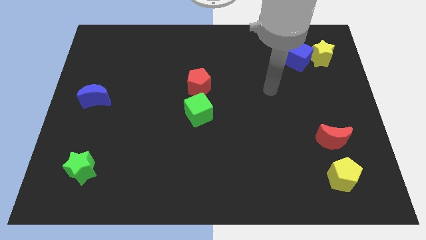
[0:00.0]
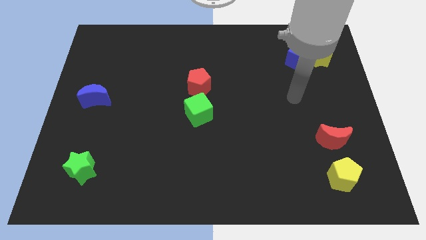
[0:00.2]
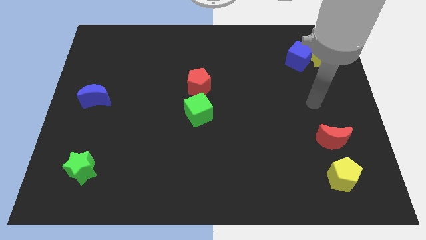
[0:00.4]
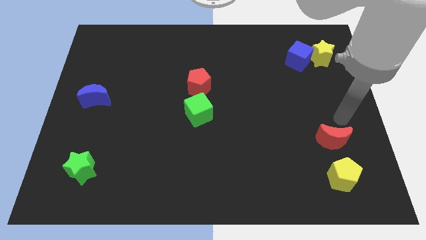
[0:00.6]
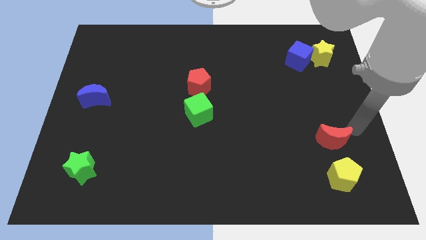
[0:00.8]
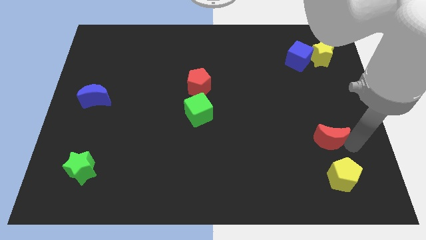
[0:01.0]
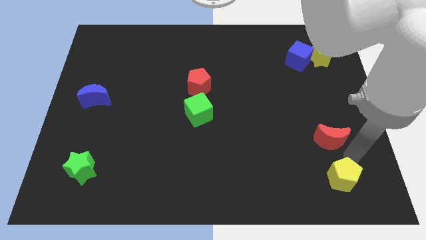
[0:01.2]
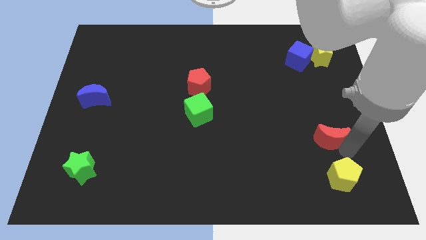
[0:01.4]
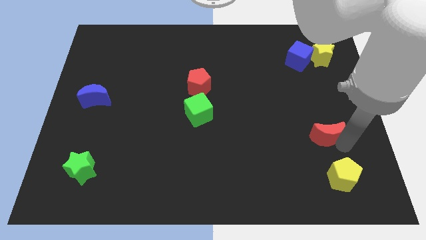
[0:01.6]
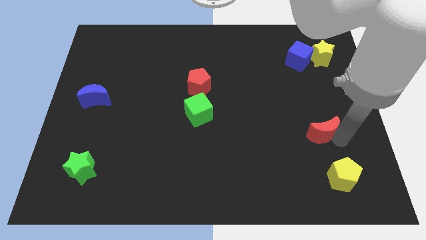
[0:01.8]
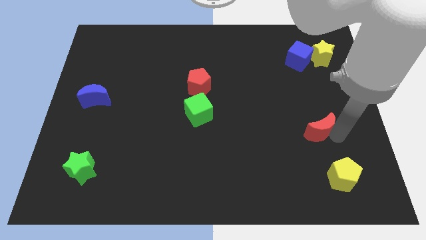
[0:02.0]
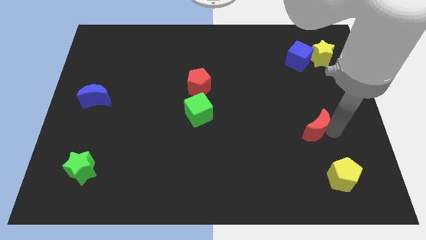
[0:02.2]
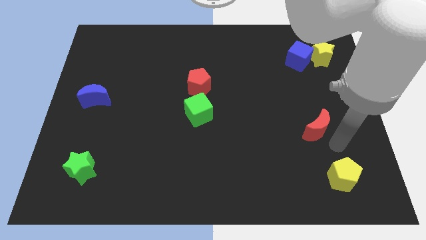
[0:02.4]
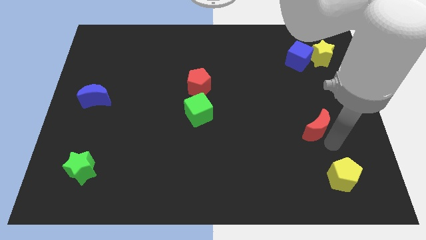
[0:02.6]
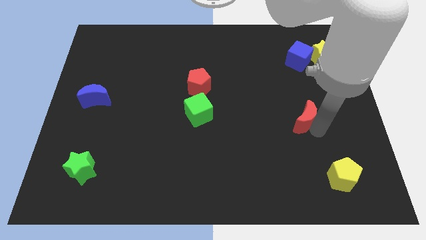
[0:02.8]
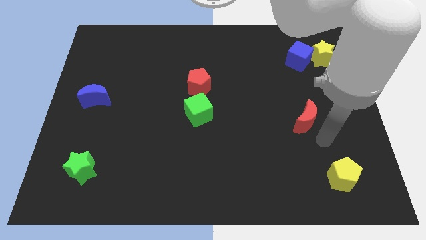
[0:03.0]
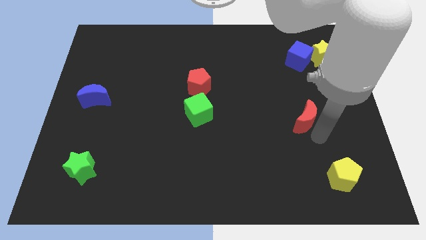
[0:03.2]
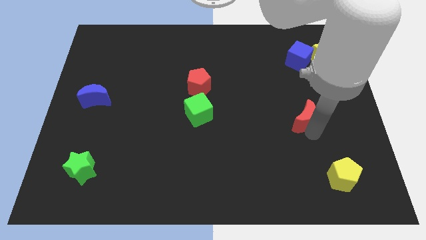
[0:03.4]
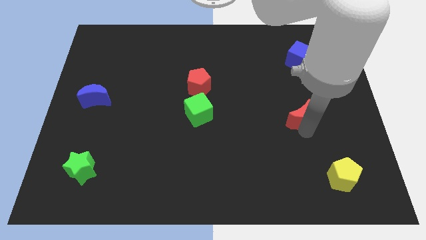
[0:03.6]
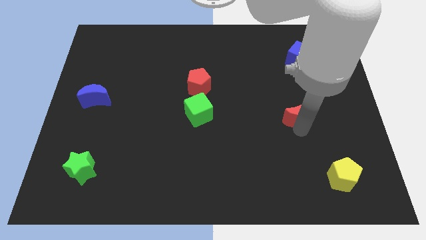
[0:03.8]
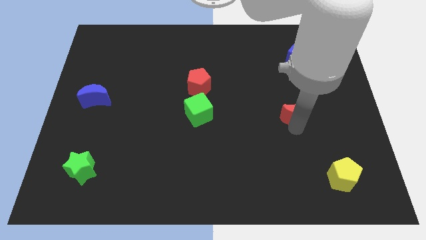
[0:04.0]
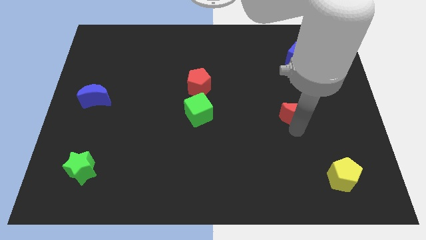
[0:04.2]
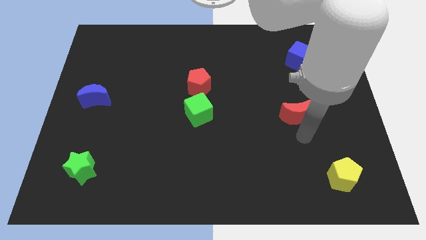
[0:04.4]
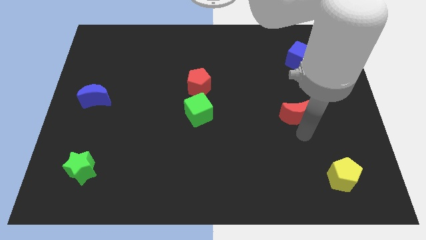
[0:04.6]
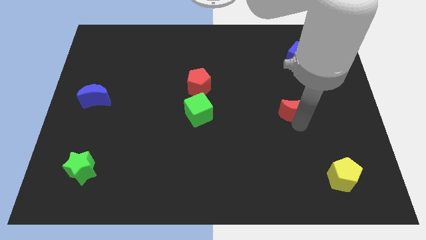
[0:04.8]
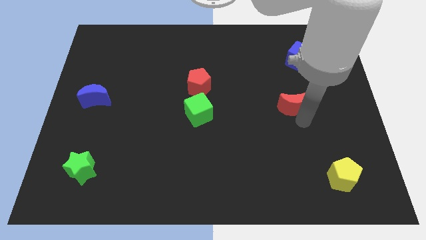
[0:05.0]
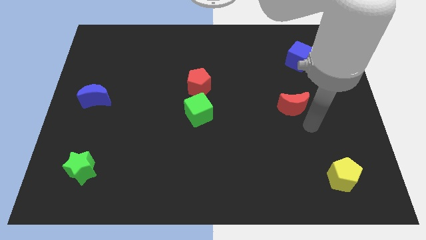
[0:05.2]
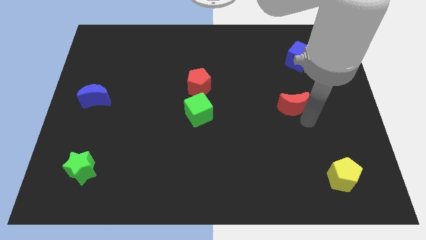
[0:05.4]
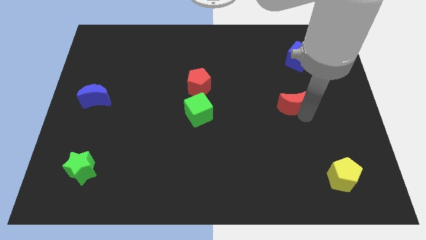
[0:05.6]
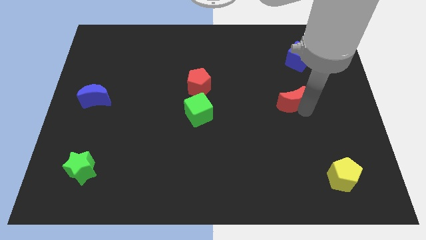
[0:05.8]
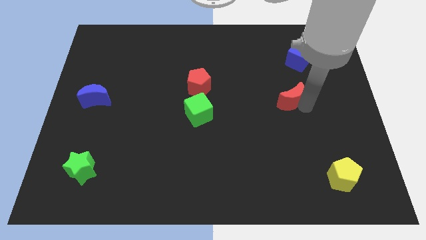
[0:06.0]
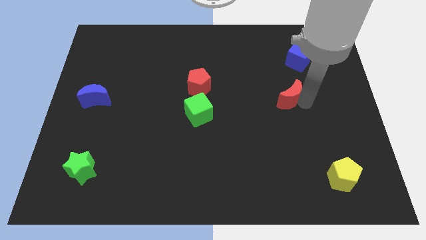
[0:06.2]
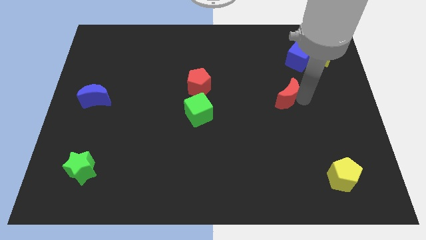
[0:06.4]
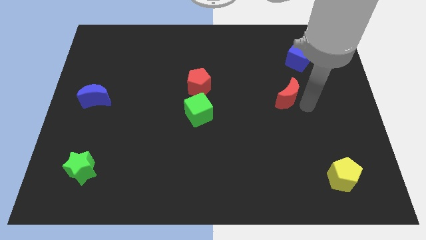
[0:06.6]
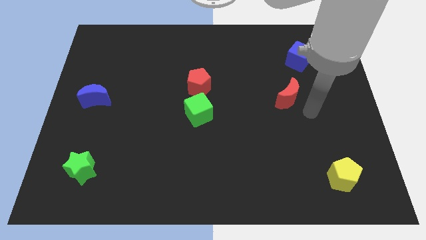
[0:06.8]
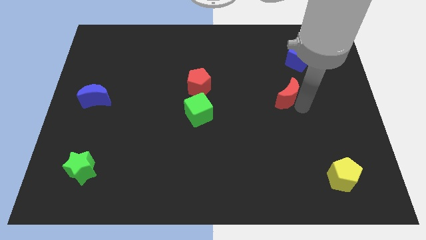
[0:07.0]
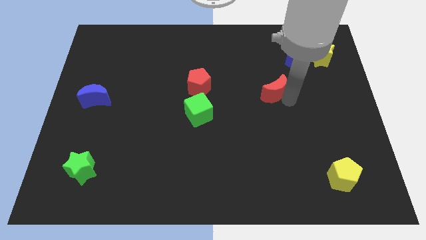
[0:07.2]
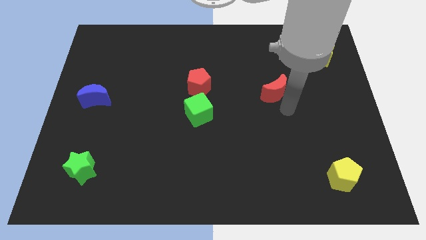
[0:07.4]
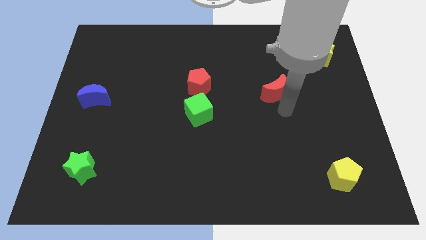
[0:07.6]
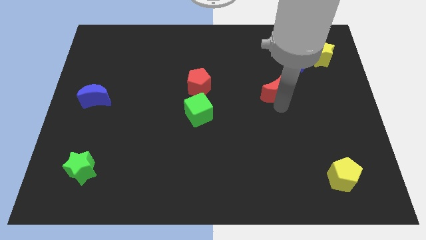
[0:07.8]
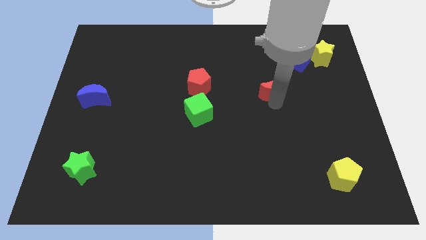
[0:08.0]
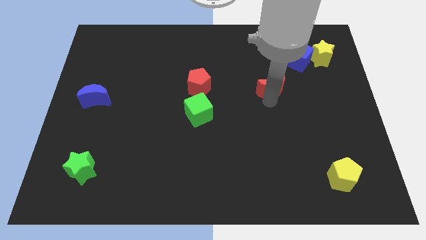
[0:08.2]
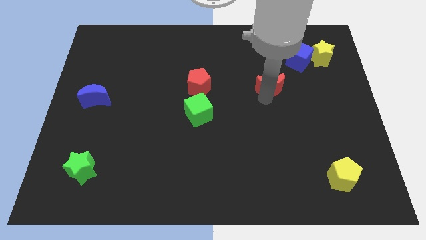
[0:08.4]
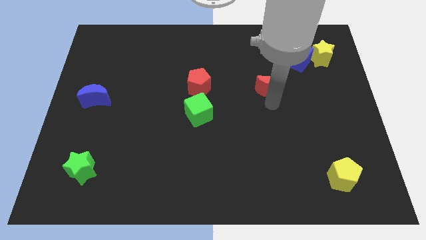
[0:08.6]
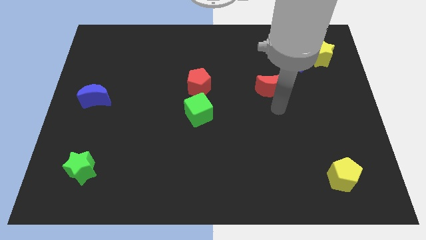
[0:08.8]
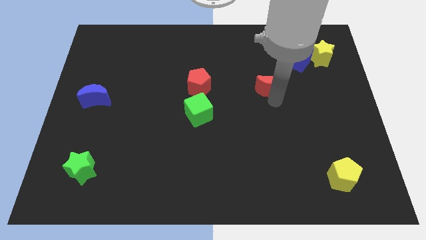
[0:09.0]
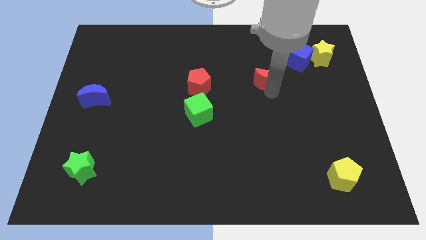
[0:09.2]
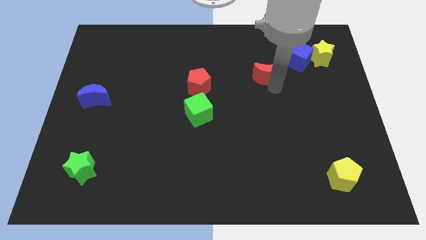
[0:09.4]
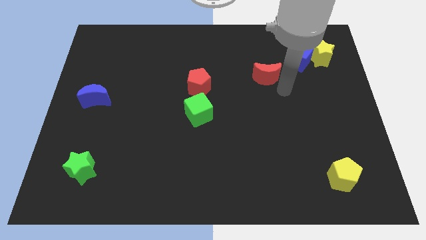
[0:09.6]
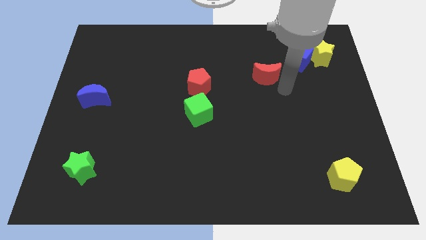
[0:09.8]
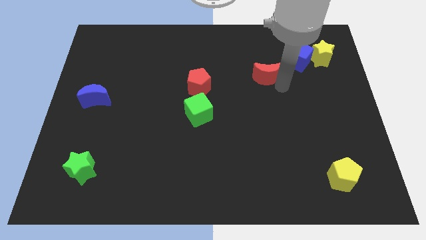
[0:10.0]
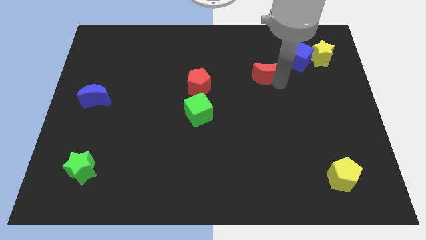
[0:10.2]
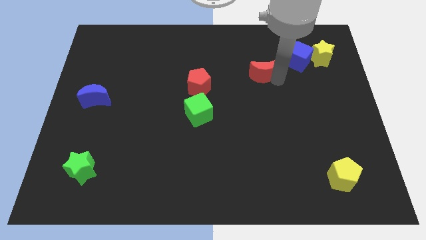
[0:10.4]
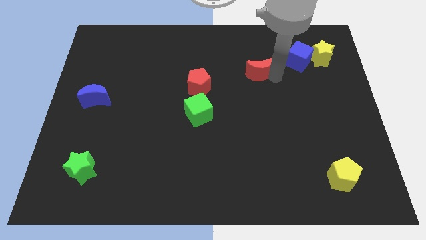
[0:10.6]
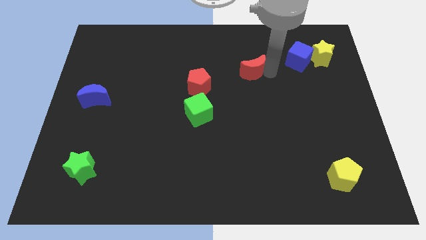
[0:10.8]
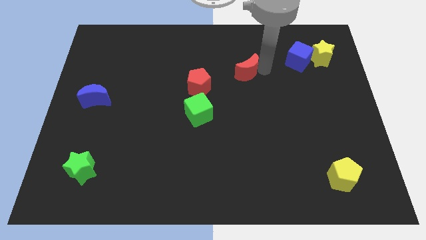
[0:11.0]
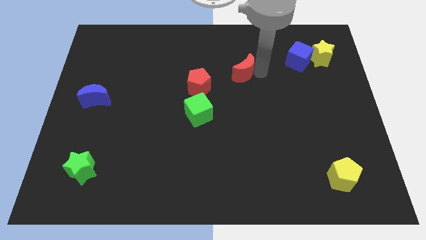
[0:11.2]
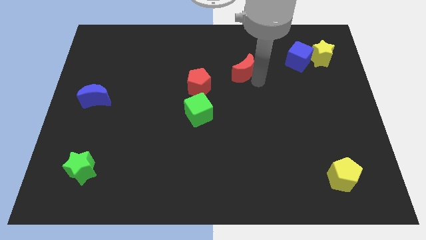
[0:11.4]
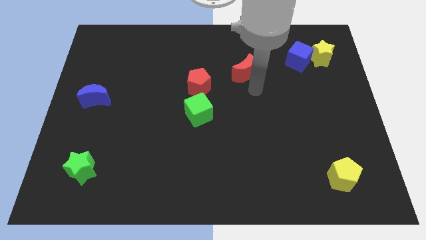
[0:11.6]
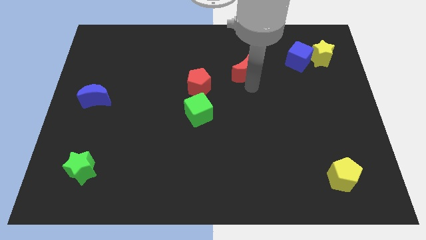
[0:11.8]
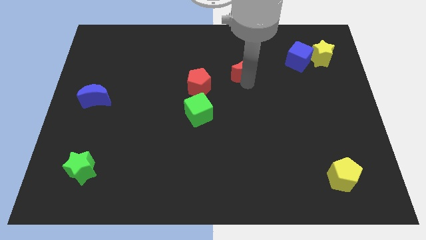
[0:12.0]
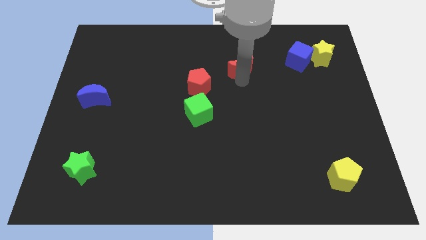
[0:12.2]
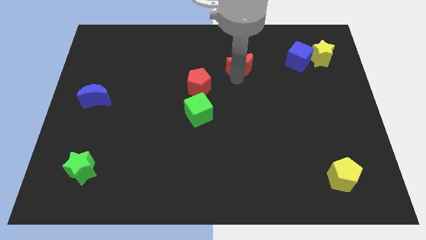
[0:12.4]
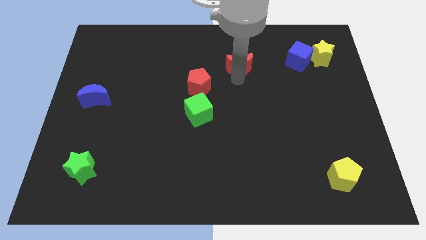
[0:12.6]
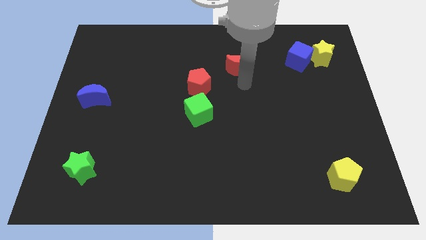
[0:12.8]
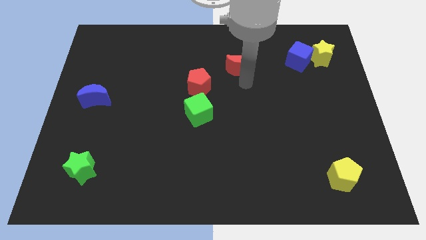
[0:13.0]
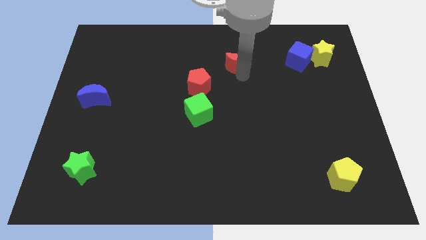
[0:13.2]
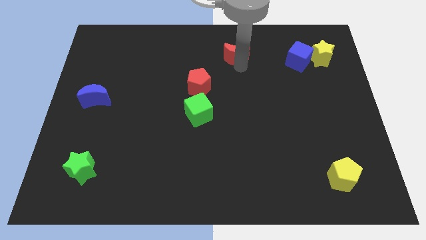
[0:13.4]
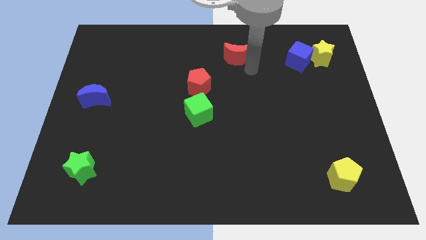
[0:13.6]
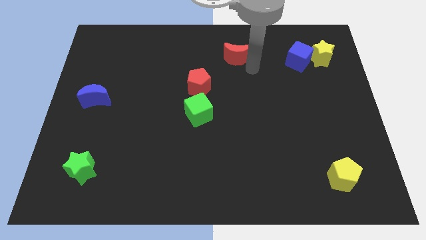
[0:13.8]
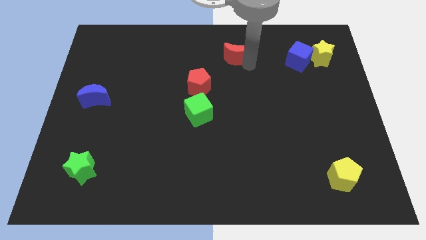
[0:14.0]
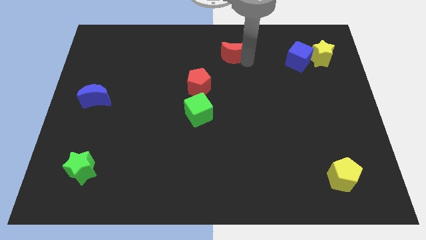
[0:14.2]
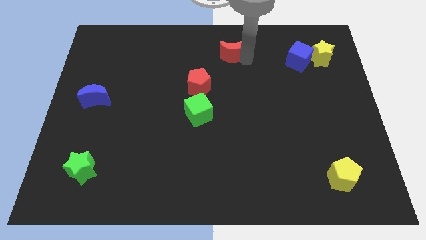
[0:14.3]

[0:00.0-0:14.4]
push the red moon to the top

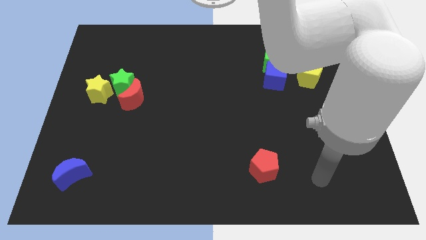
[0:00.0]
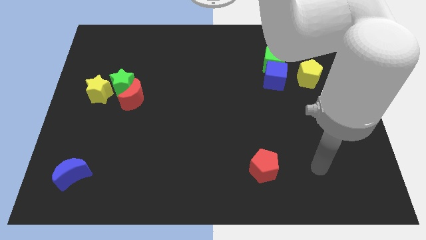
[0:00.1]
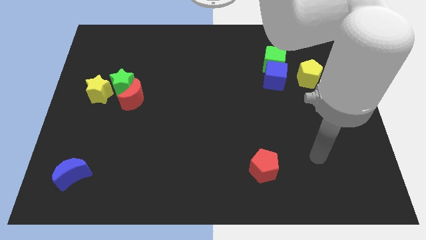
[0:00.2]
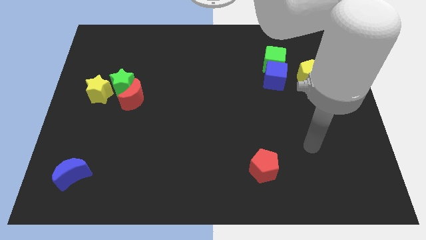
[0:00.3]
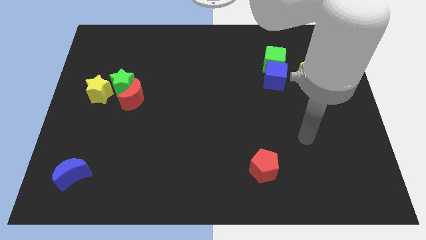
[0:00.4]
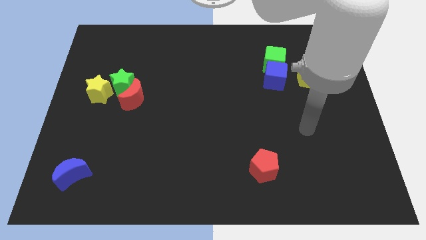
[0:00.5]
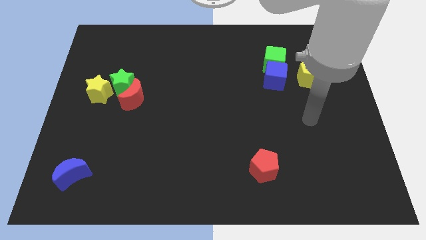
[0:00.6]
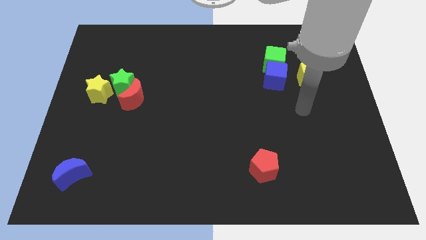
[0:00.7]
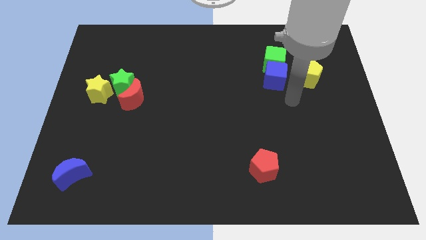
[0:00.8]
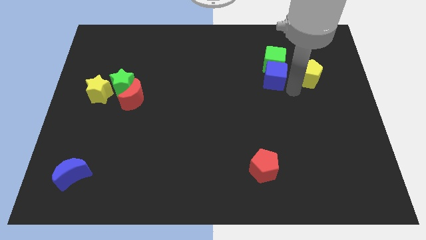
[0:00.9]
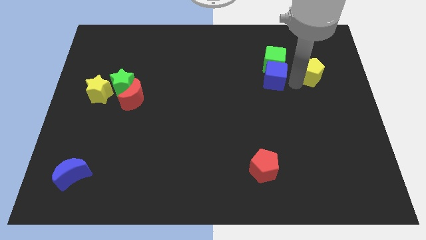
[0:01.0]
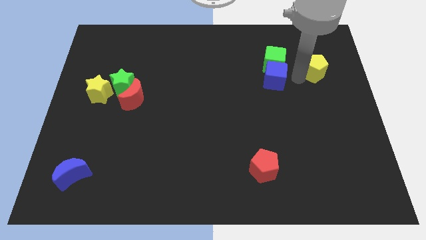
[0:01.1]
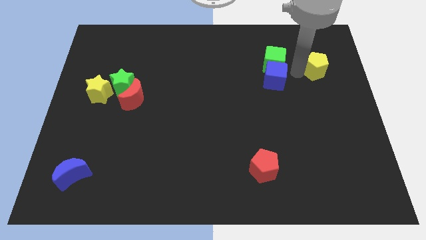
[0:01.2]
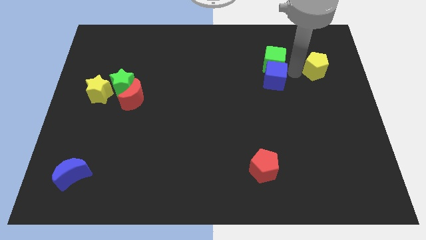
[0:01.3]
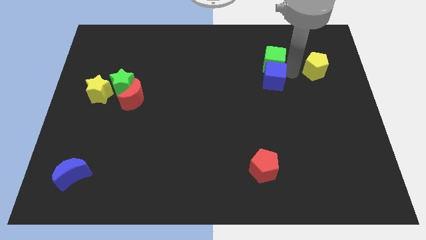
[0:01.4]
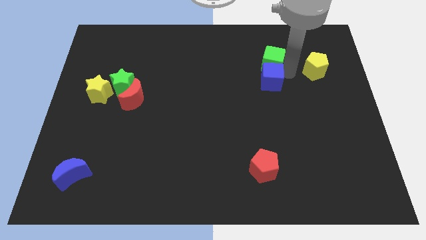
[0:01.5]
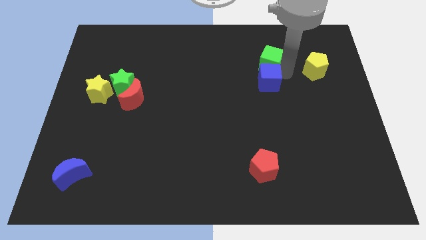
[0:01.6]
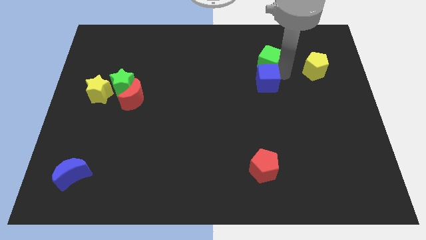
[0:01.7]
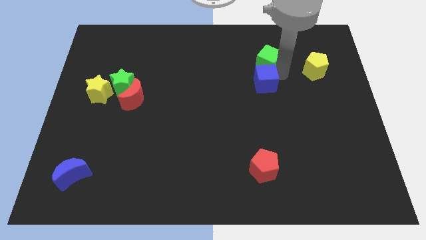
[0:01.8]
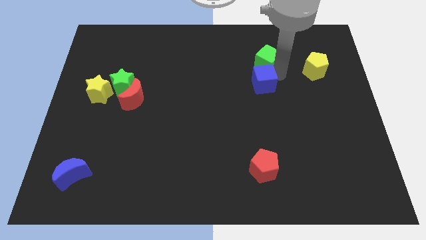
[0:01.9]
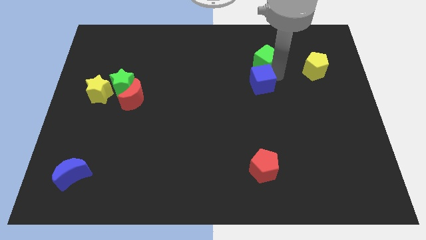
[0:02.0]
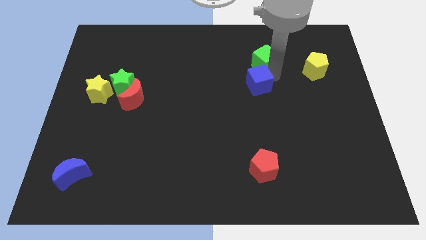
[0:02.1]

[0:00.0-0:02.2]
slide the blue cube to the middle
